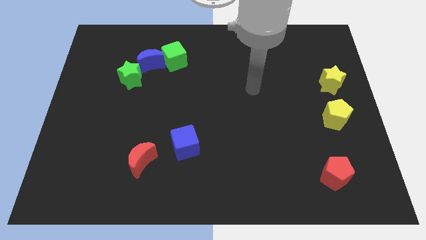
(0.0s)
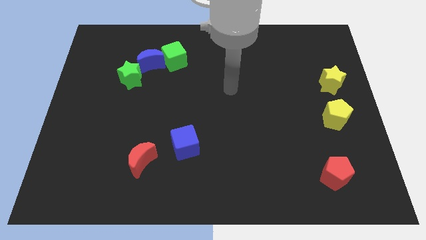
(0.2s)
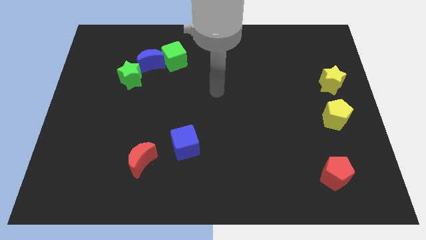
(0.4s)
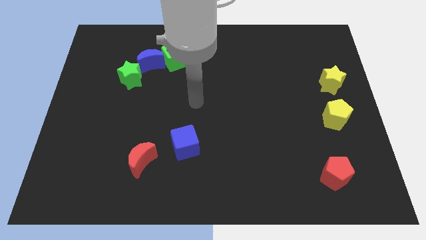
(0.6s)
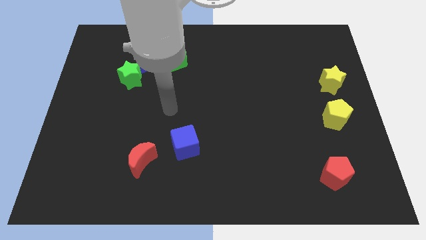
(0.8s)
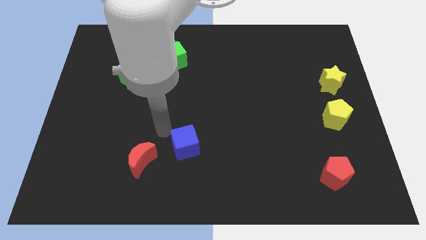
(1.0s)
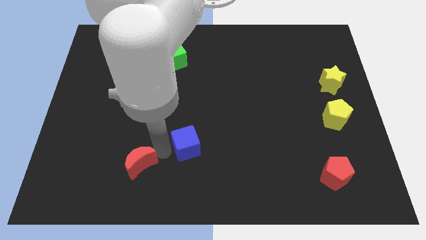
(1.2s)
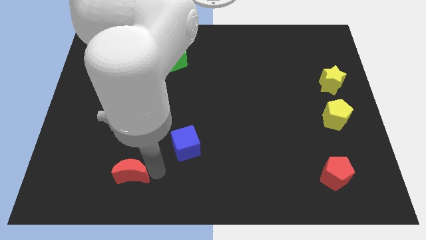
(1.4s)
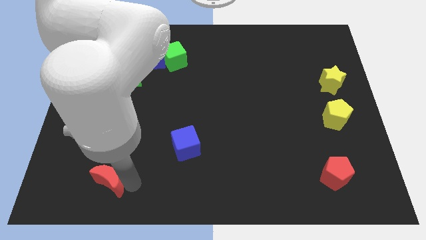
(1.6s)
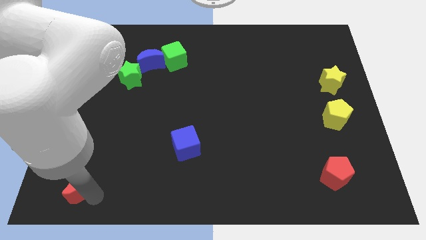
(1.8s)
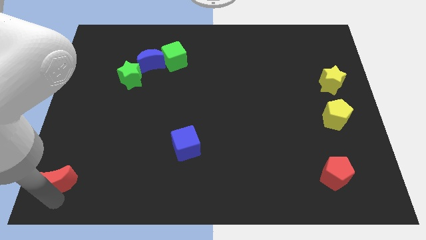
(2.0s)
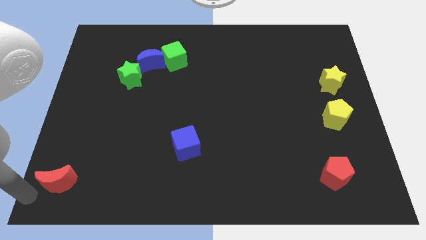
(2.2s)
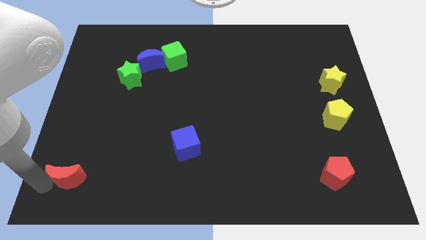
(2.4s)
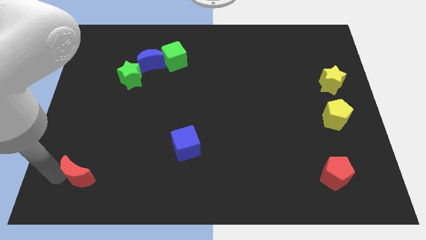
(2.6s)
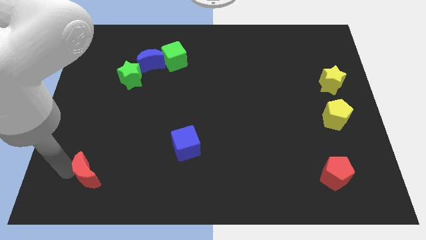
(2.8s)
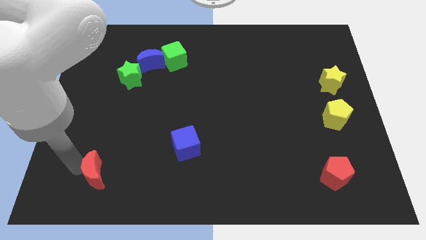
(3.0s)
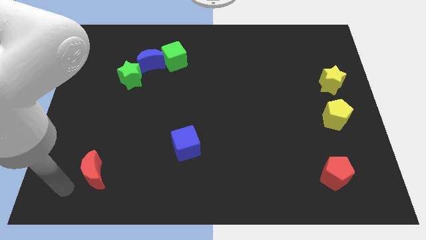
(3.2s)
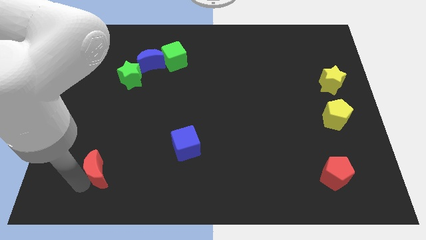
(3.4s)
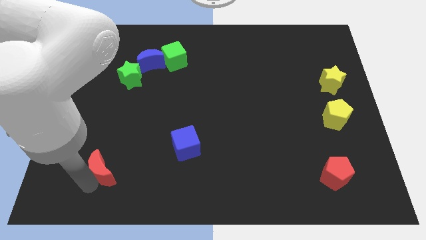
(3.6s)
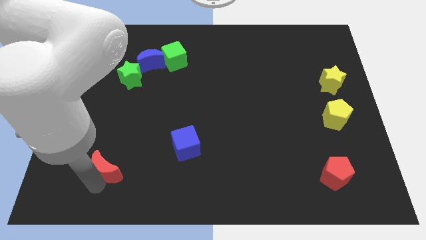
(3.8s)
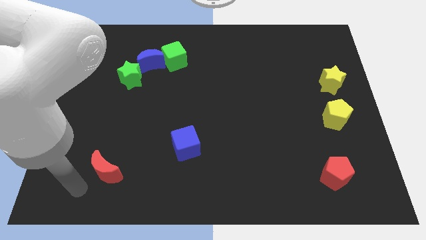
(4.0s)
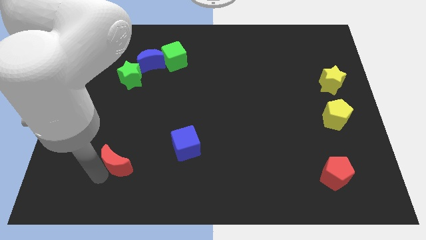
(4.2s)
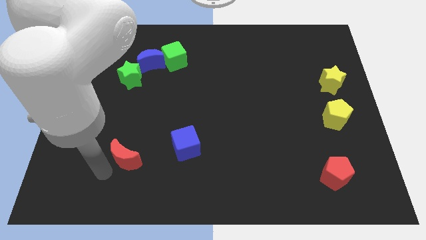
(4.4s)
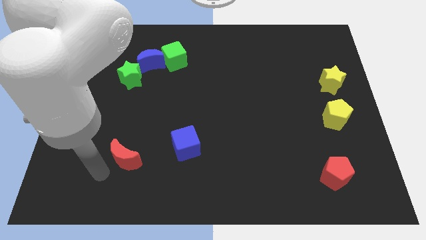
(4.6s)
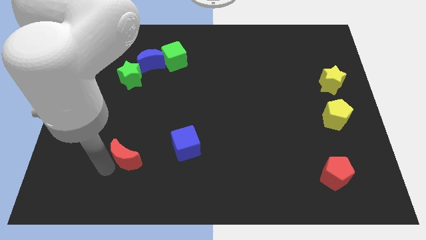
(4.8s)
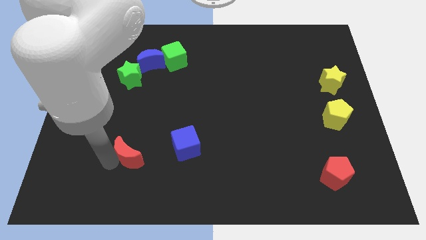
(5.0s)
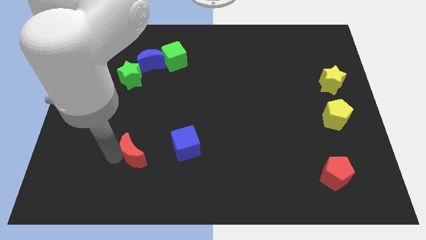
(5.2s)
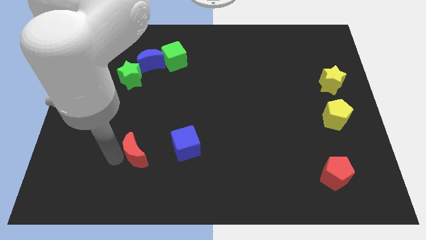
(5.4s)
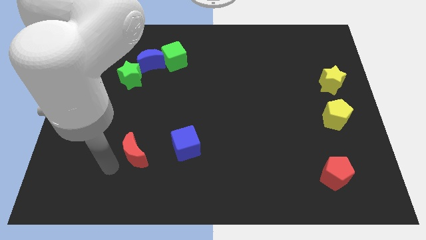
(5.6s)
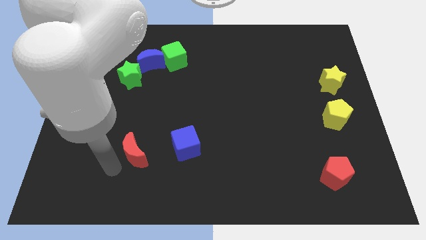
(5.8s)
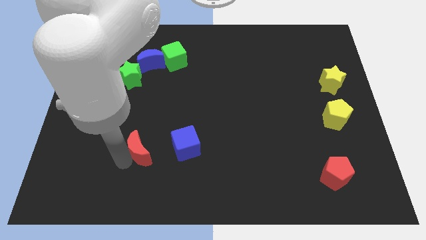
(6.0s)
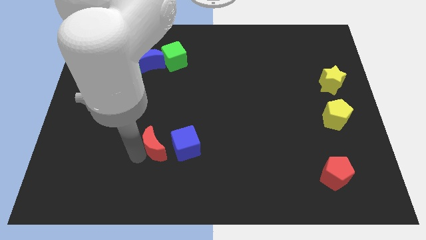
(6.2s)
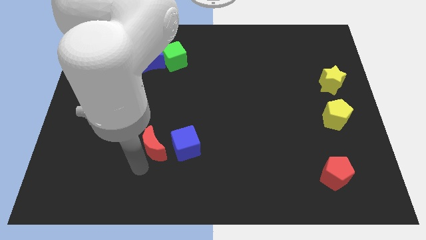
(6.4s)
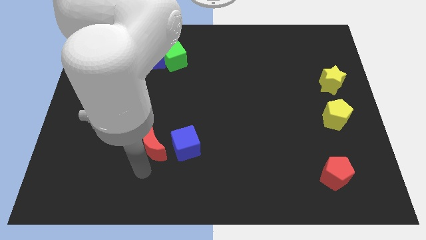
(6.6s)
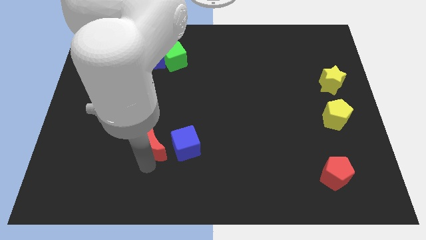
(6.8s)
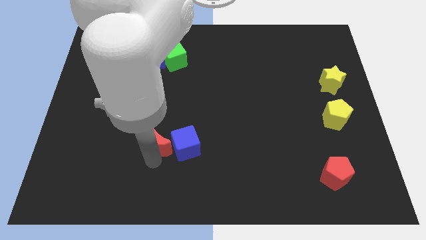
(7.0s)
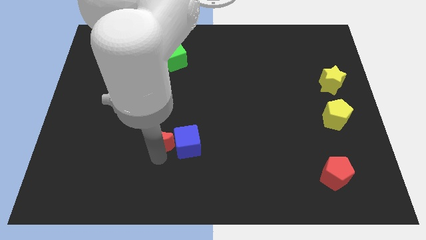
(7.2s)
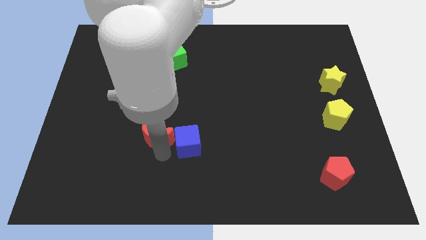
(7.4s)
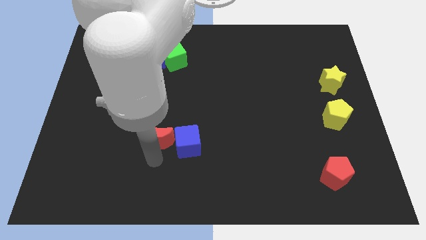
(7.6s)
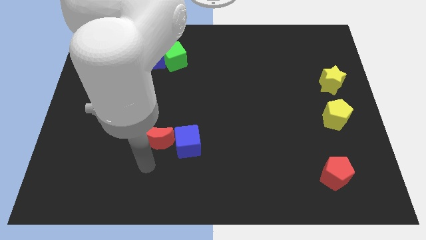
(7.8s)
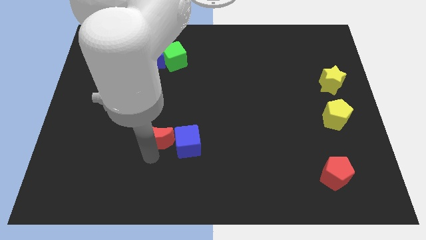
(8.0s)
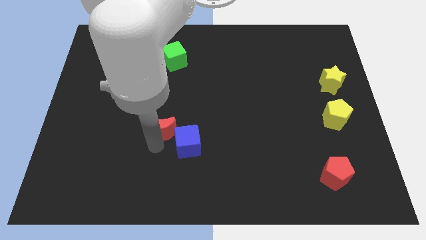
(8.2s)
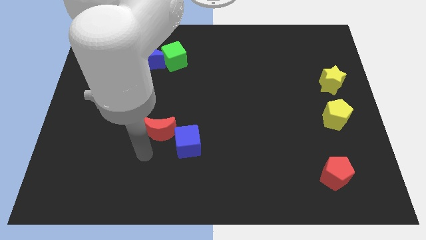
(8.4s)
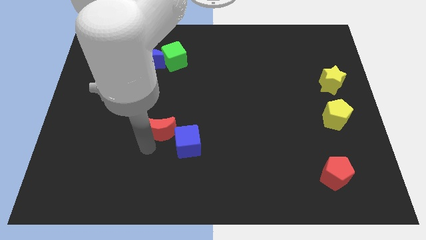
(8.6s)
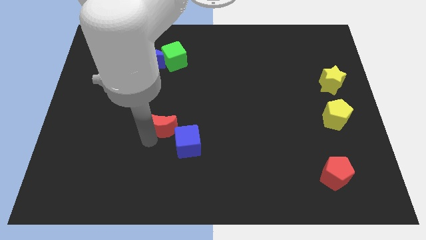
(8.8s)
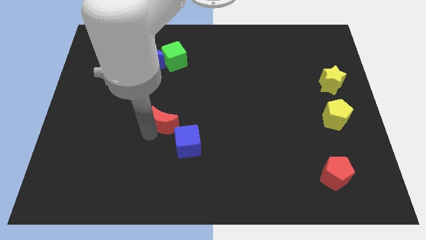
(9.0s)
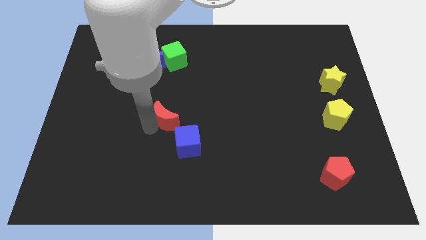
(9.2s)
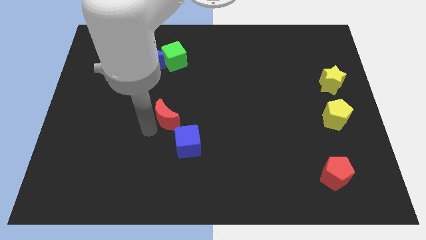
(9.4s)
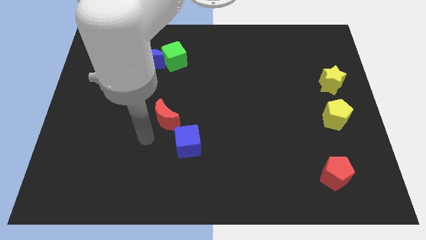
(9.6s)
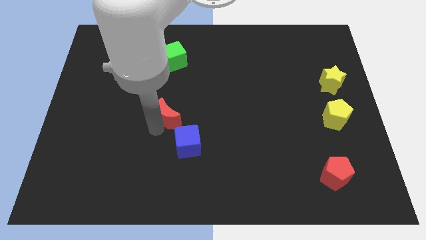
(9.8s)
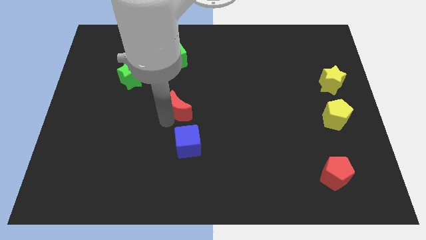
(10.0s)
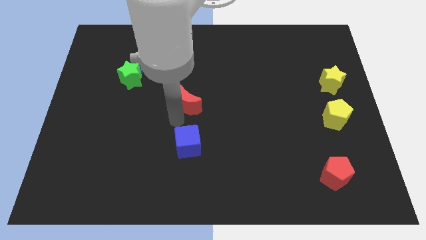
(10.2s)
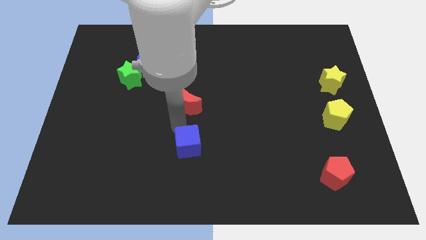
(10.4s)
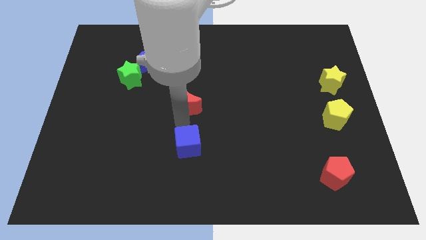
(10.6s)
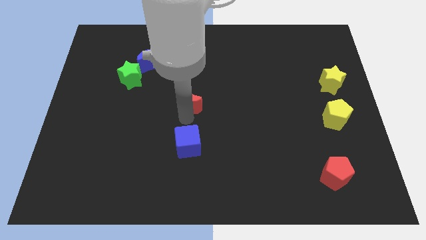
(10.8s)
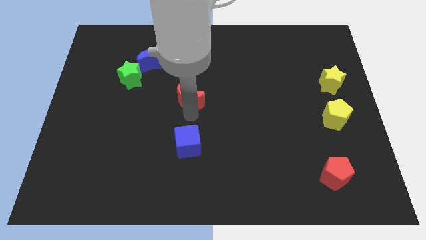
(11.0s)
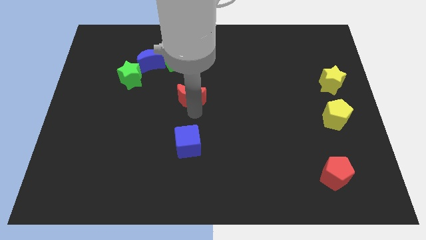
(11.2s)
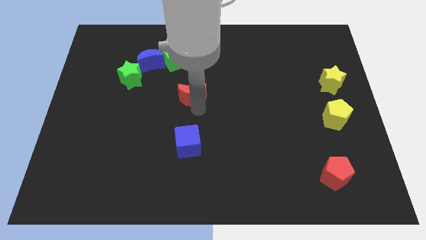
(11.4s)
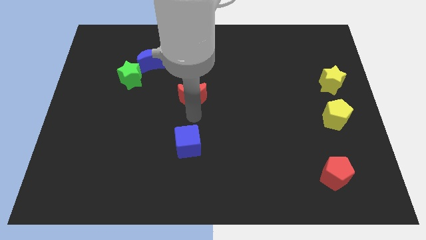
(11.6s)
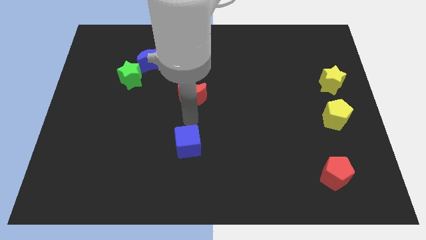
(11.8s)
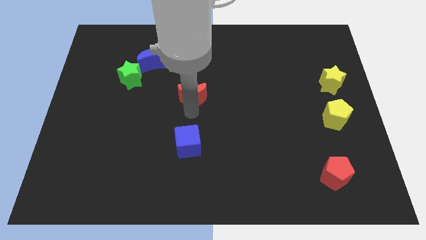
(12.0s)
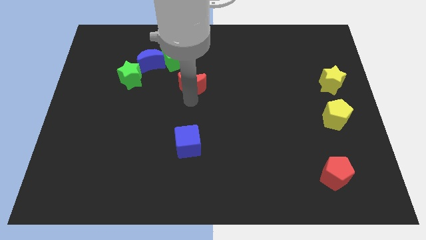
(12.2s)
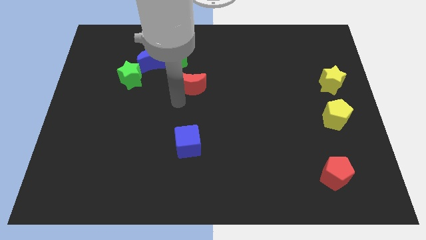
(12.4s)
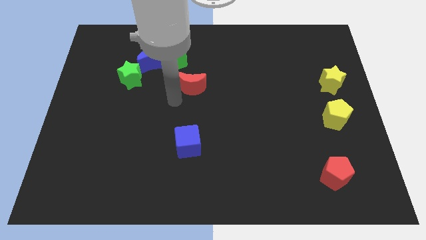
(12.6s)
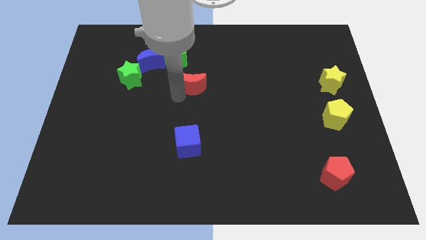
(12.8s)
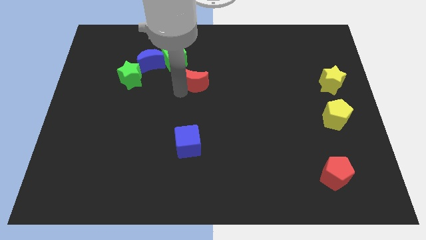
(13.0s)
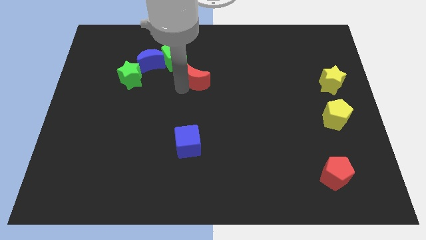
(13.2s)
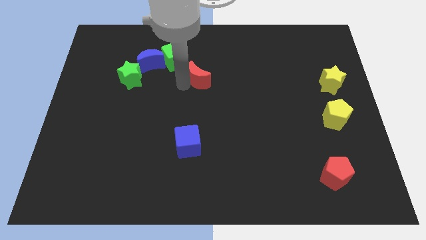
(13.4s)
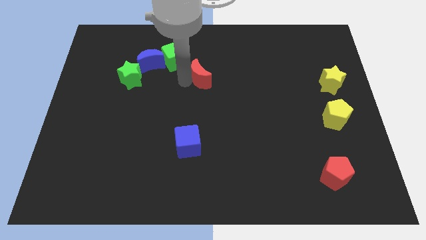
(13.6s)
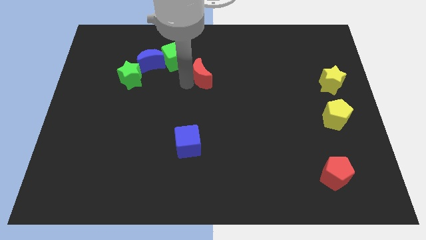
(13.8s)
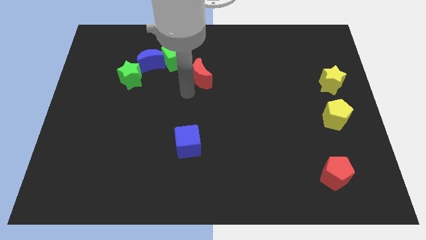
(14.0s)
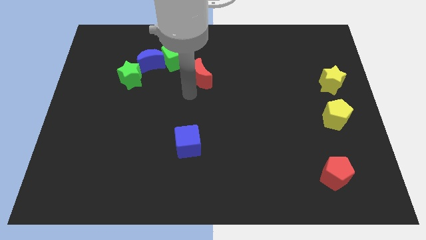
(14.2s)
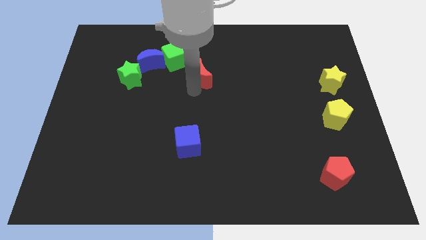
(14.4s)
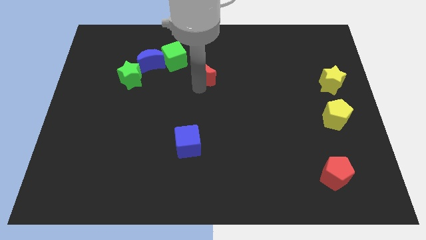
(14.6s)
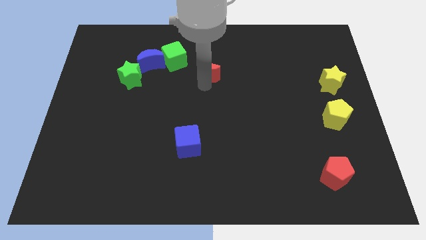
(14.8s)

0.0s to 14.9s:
put the red moon to the right side of the green cube

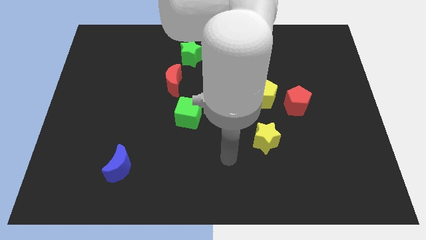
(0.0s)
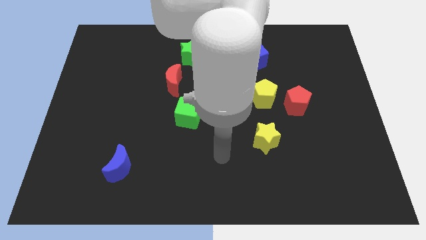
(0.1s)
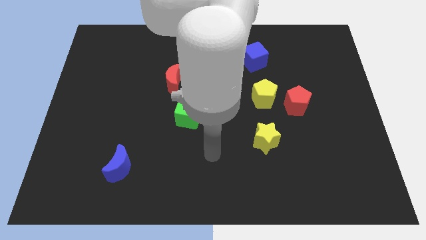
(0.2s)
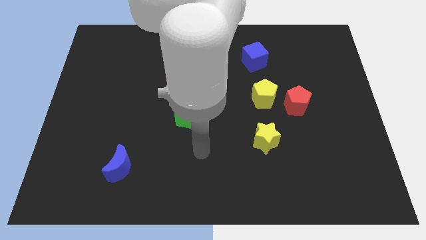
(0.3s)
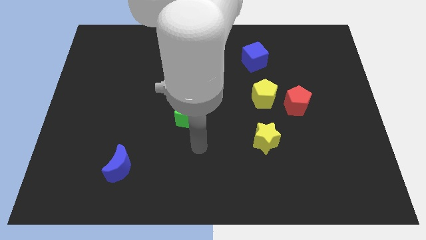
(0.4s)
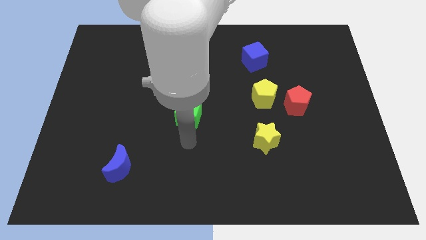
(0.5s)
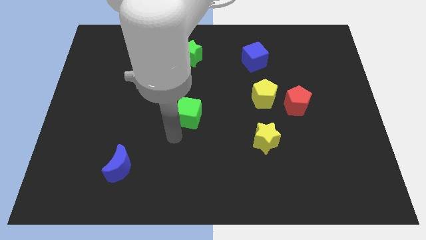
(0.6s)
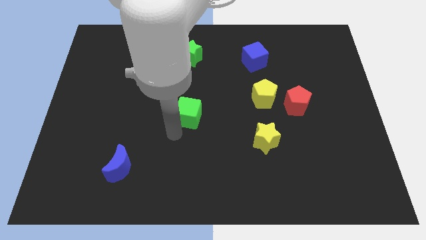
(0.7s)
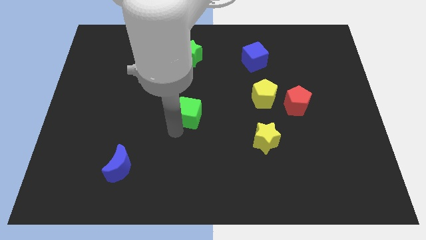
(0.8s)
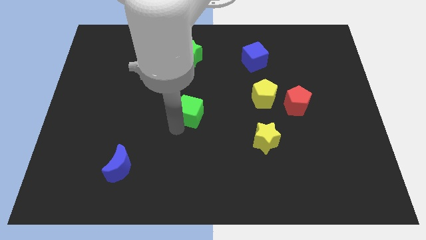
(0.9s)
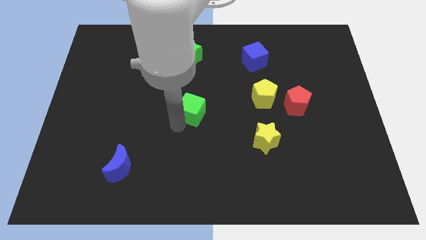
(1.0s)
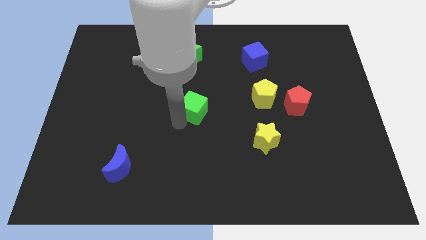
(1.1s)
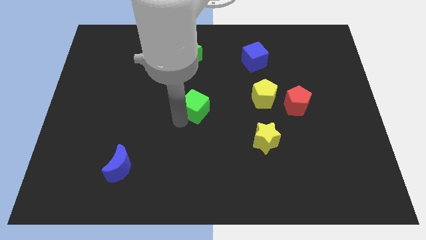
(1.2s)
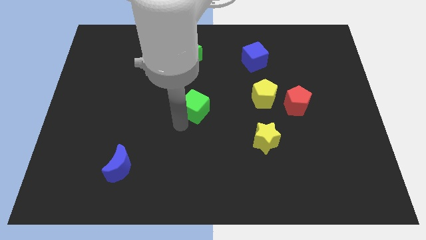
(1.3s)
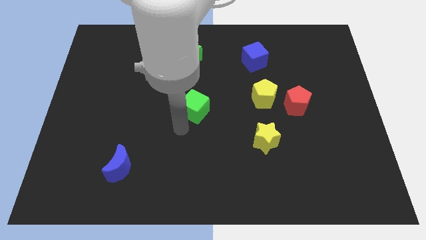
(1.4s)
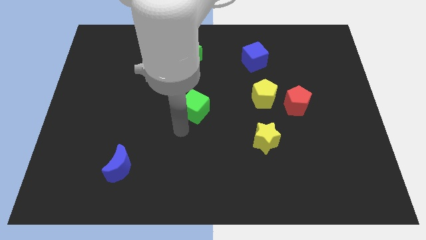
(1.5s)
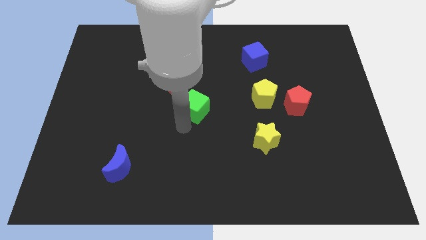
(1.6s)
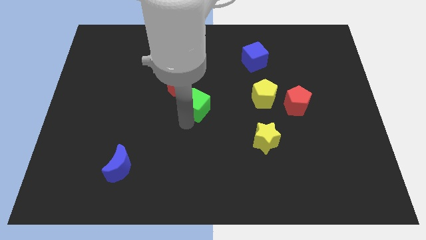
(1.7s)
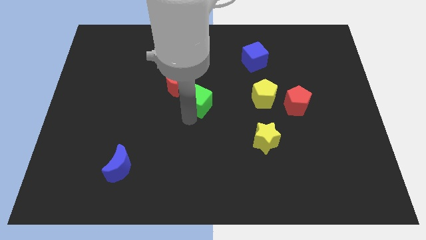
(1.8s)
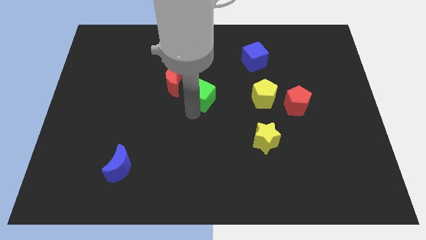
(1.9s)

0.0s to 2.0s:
put the green cube to the right of the red moon
